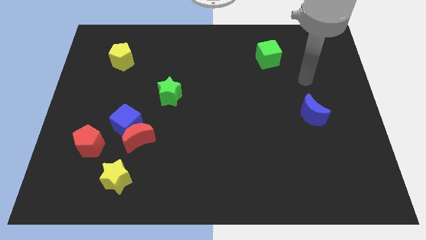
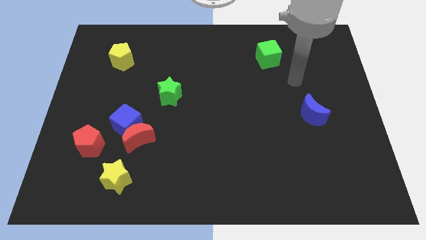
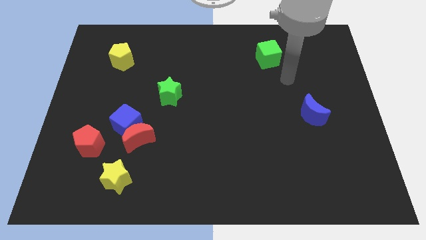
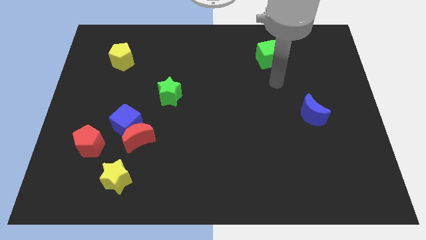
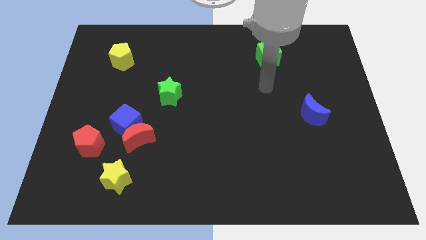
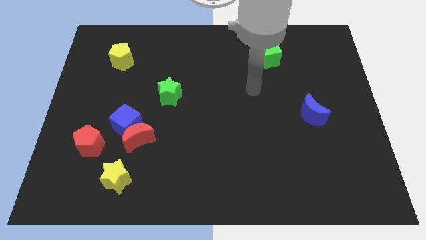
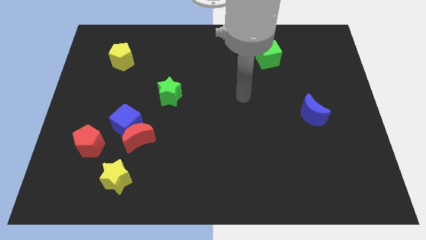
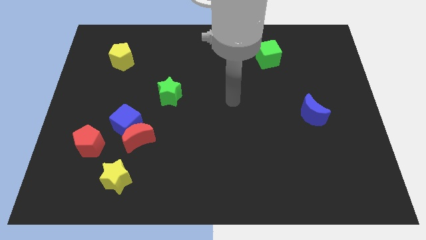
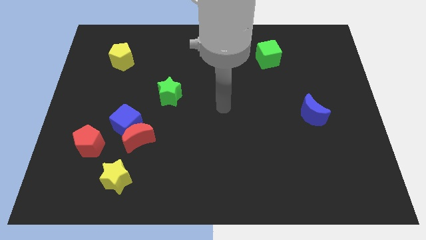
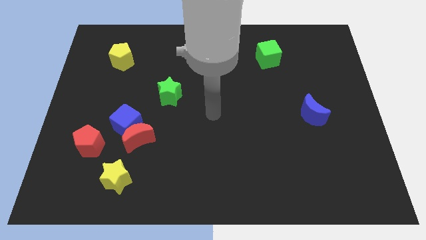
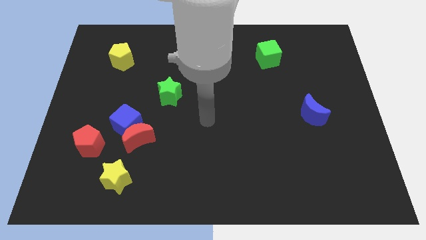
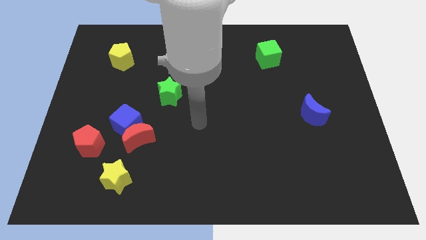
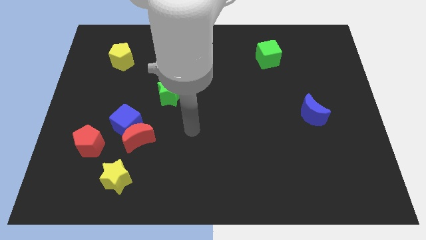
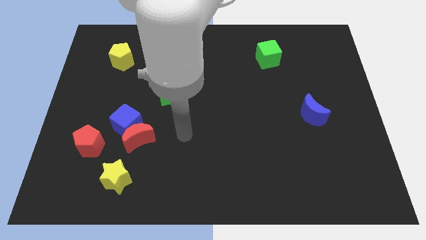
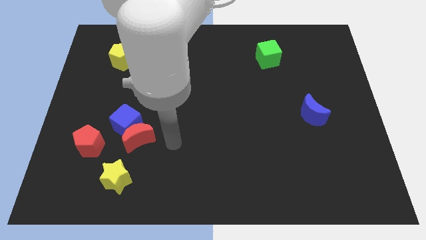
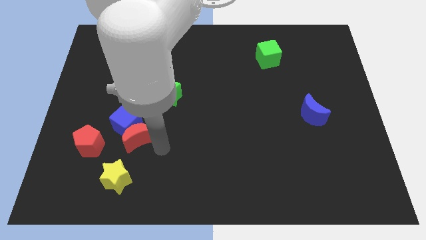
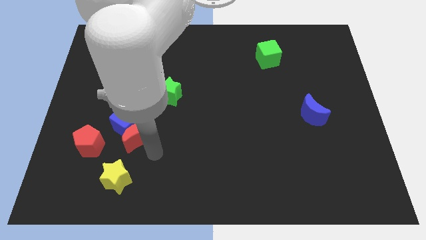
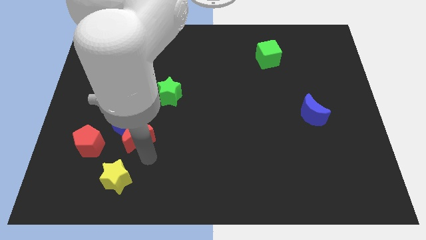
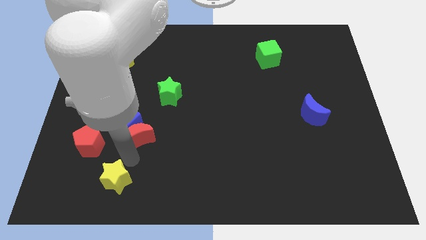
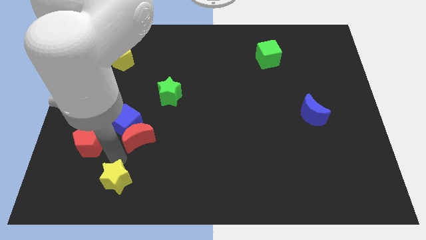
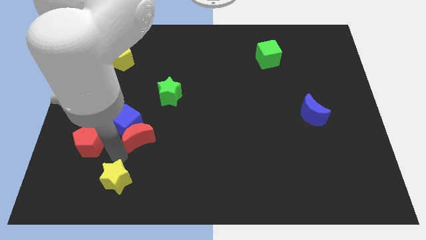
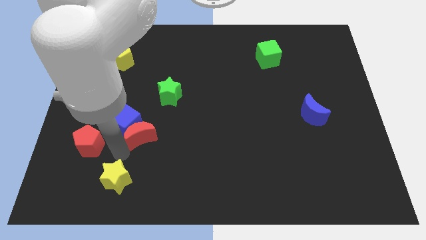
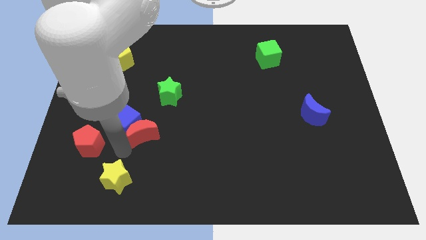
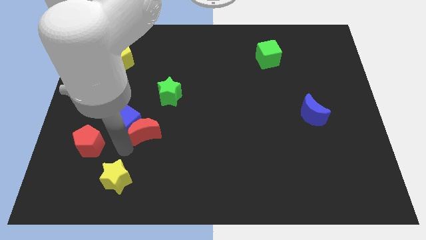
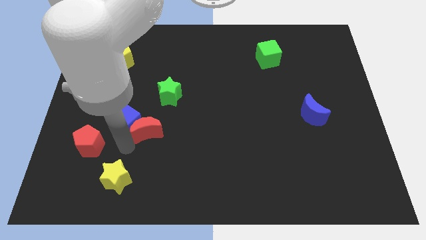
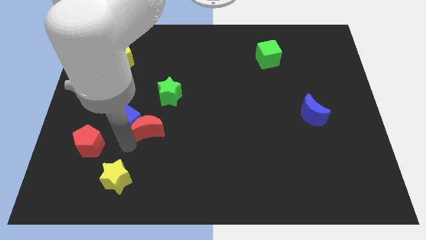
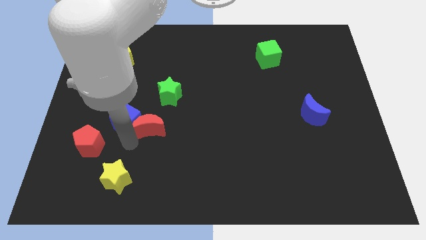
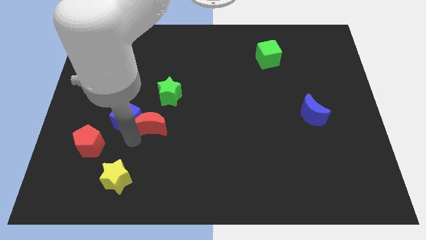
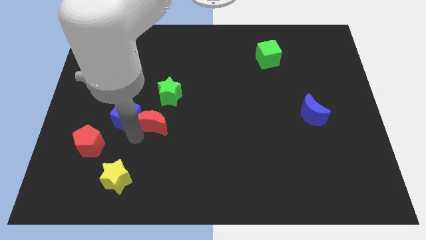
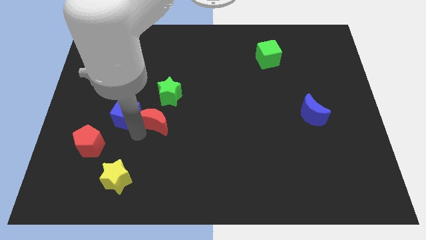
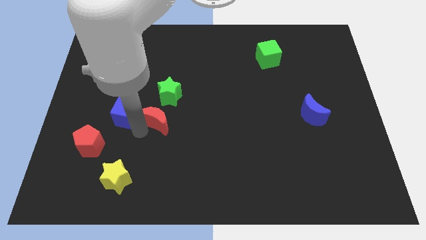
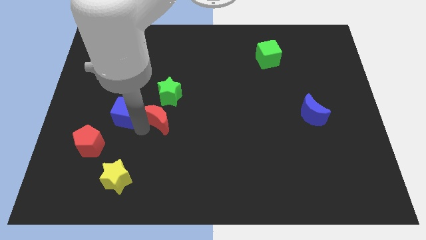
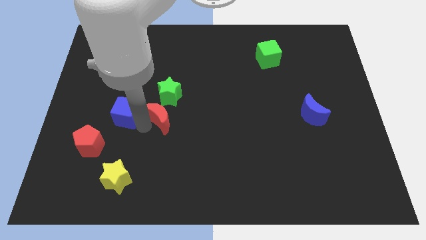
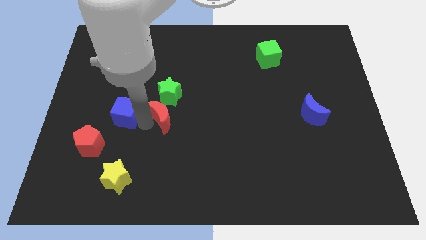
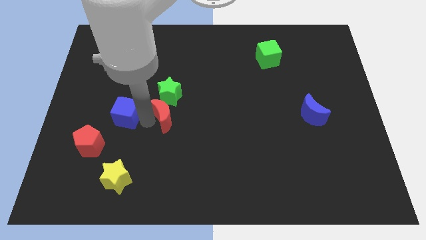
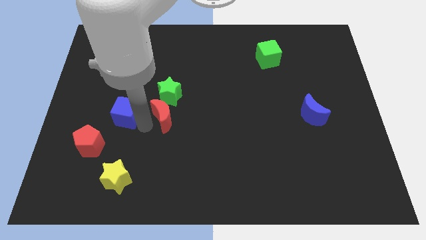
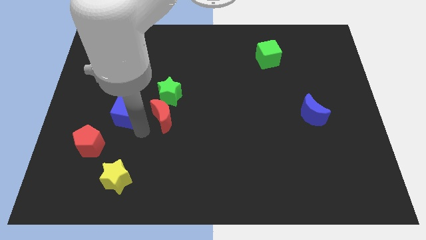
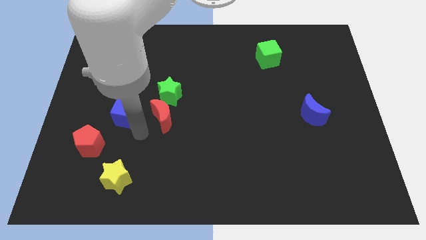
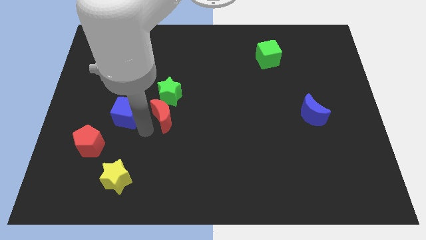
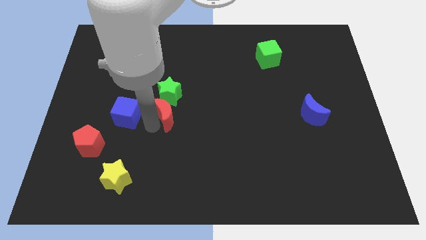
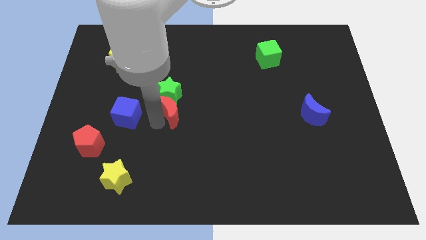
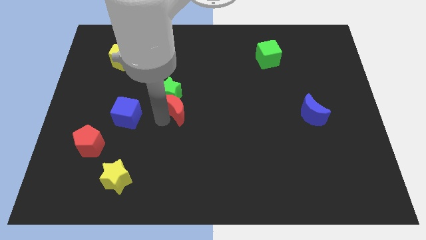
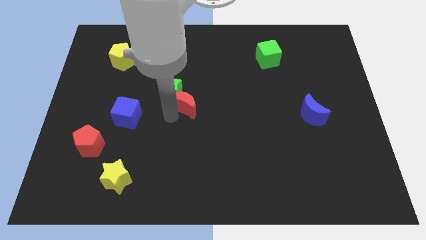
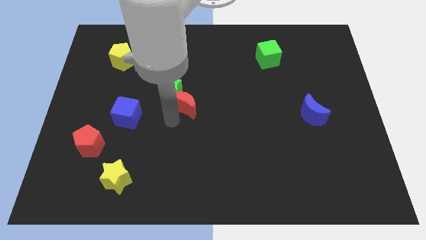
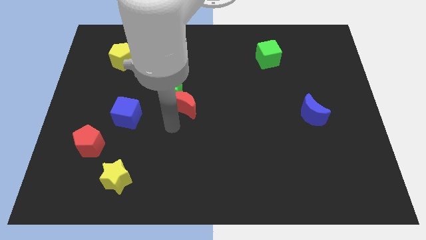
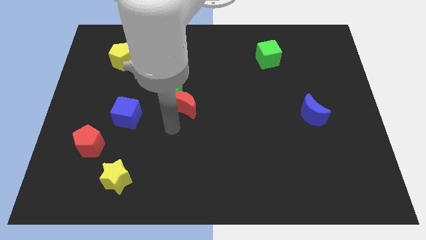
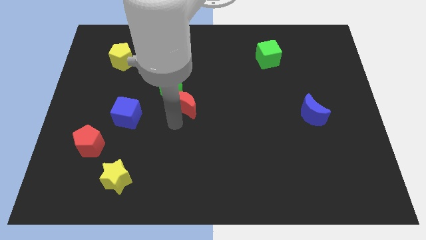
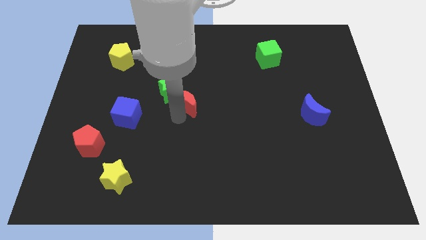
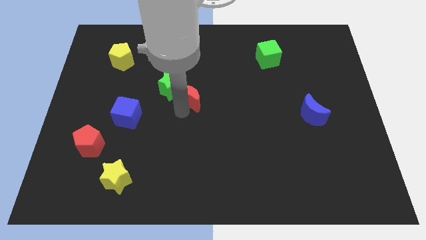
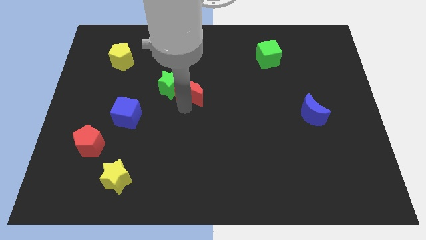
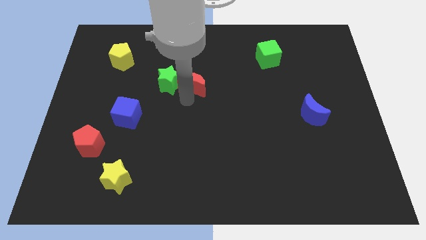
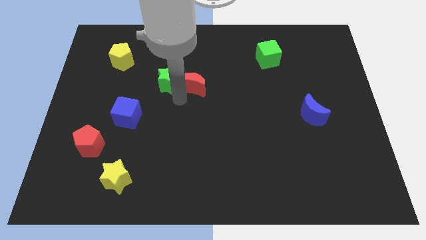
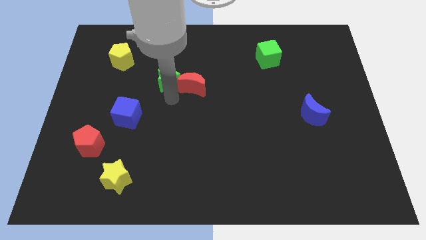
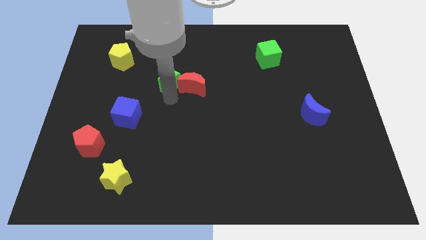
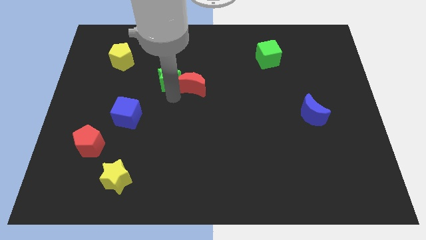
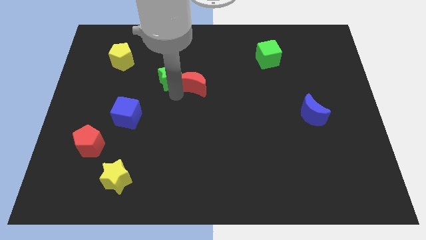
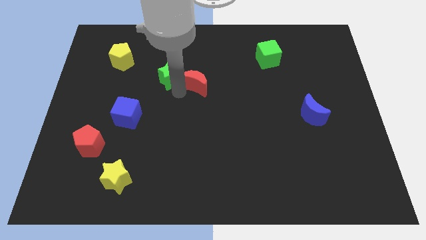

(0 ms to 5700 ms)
move the red moon up and then right

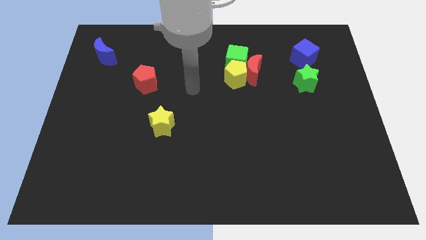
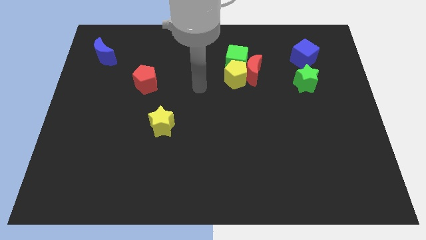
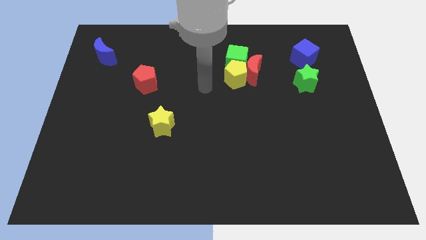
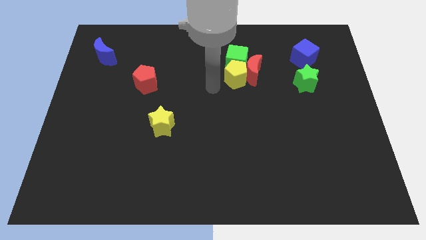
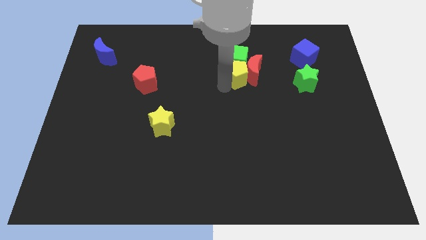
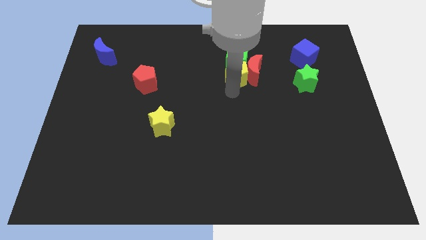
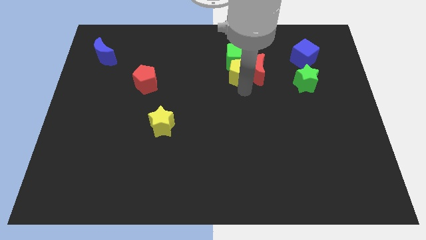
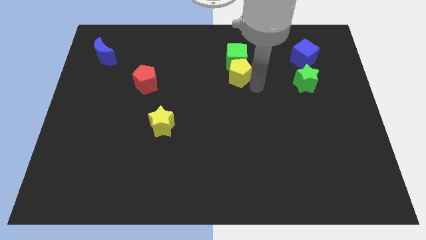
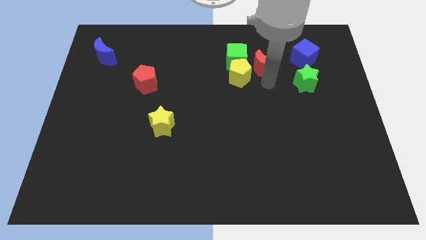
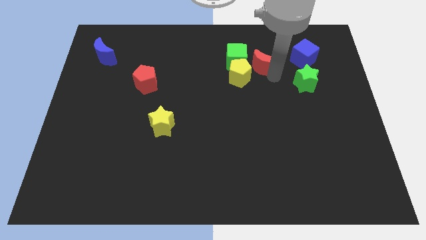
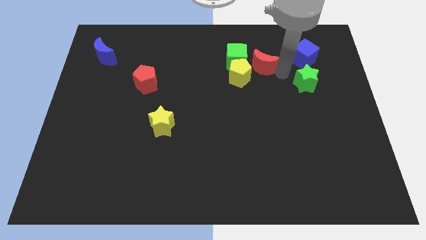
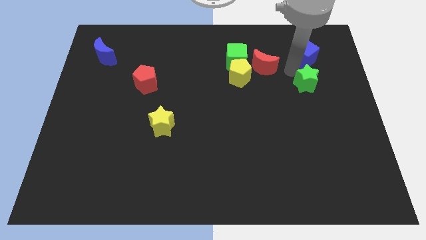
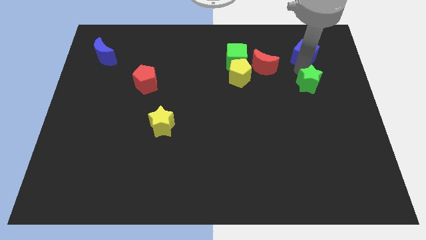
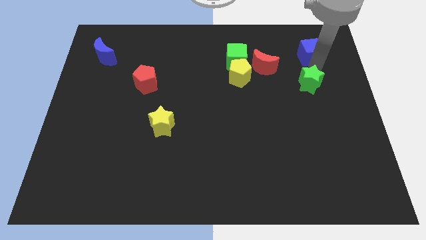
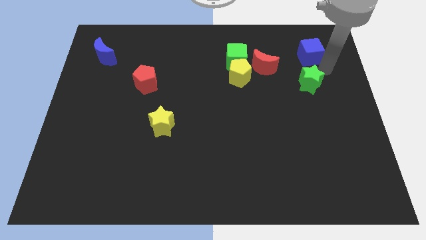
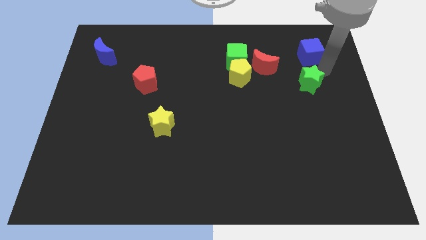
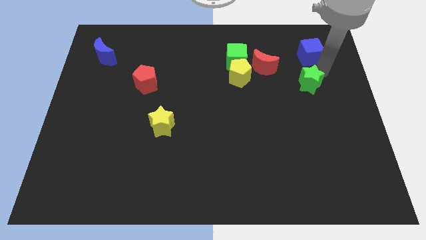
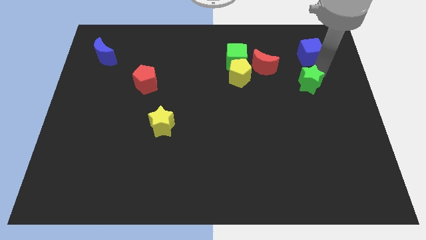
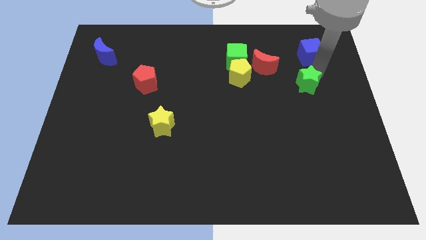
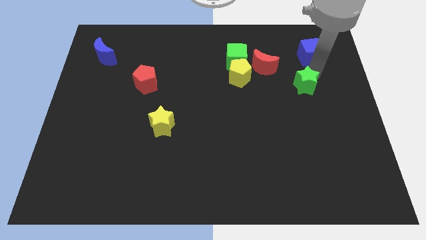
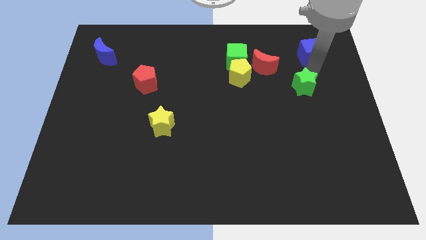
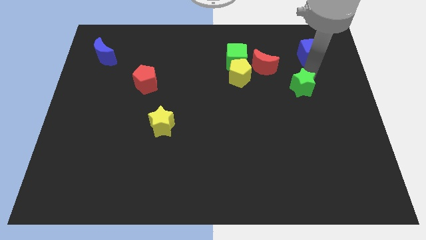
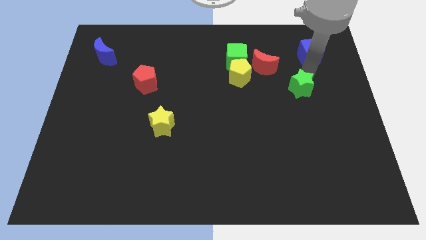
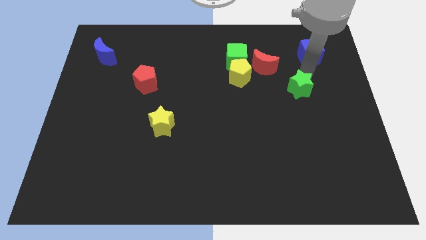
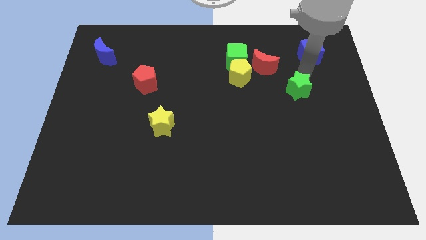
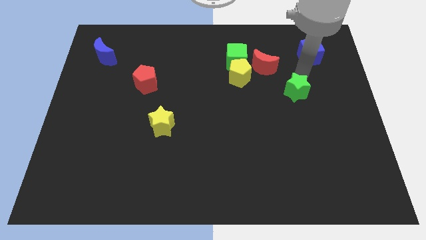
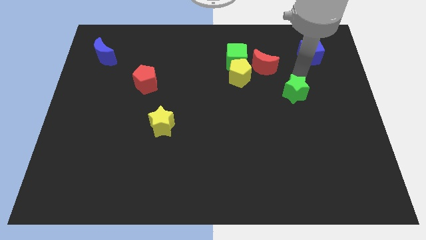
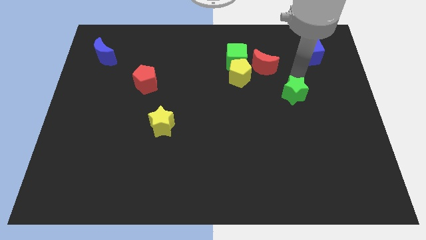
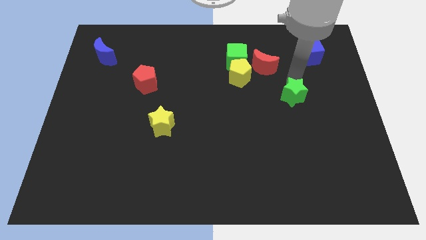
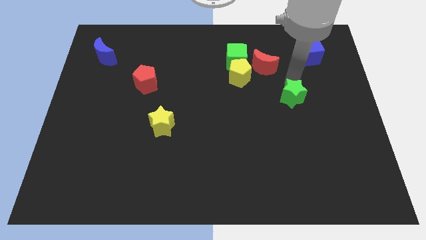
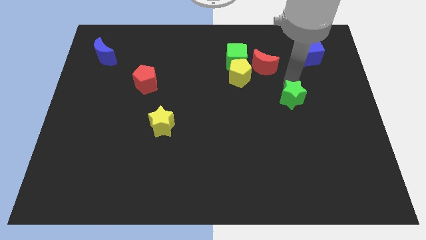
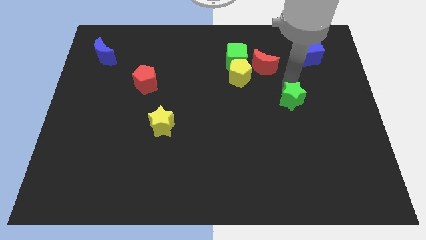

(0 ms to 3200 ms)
move the green star diagonally down and to the left slightly
